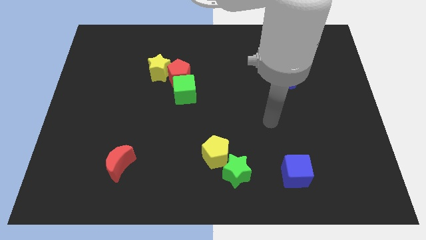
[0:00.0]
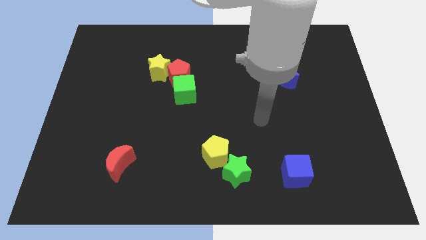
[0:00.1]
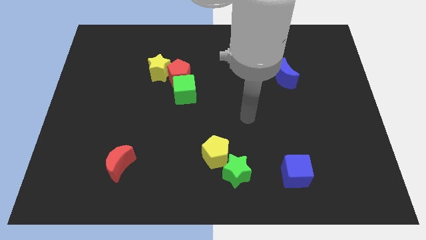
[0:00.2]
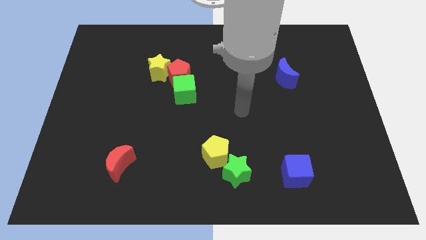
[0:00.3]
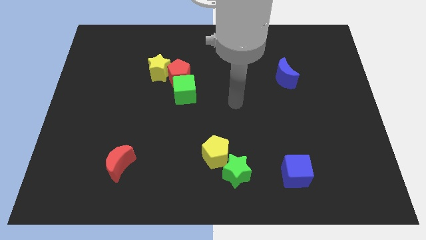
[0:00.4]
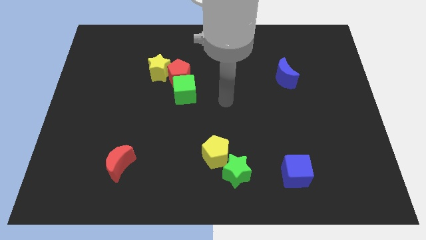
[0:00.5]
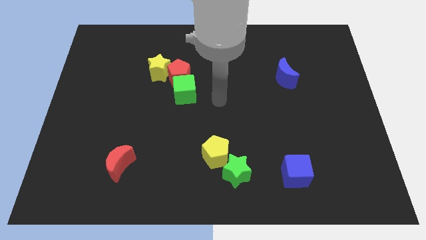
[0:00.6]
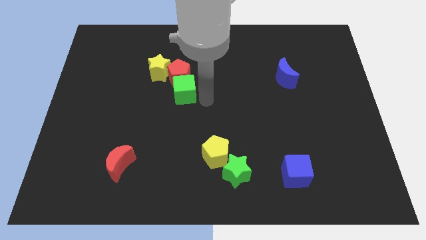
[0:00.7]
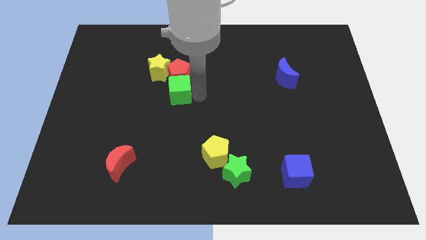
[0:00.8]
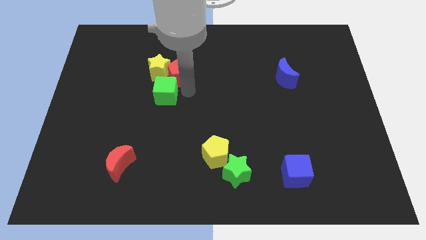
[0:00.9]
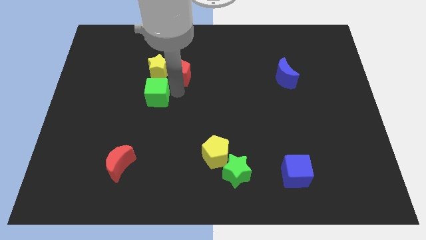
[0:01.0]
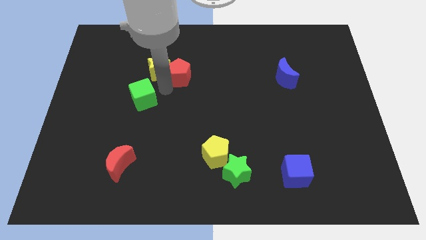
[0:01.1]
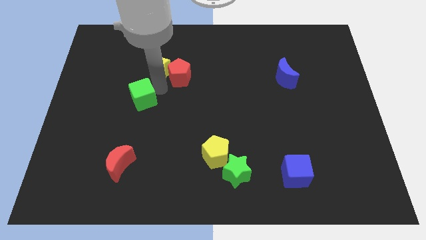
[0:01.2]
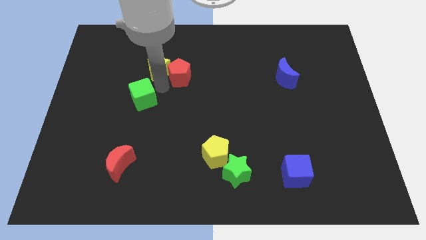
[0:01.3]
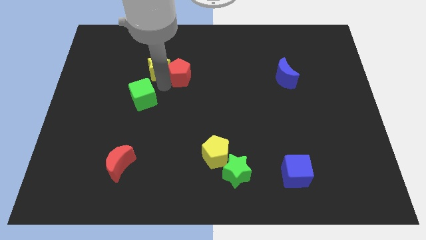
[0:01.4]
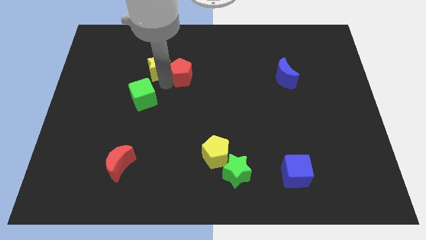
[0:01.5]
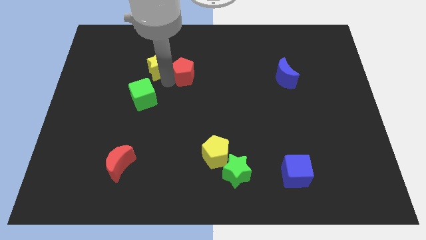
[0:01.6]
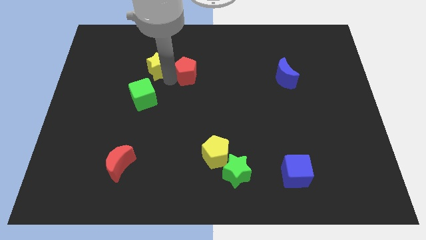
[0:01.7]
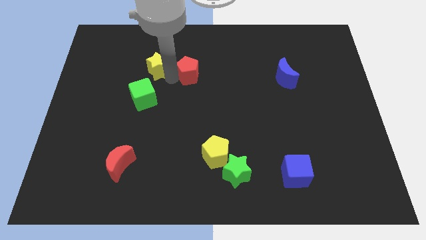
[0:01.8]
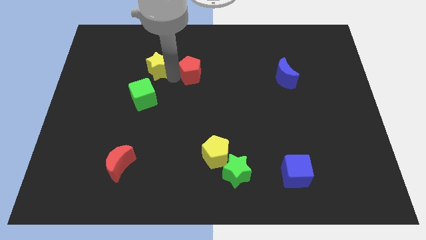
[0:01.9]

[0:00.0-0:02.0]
pull the red pentagon apart from the green cube and yellow star

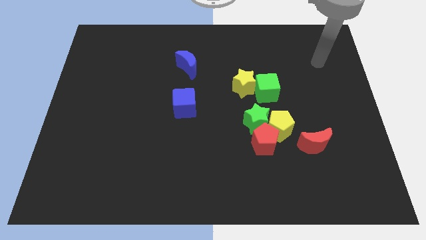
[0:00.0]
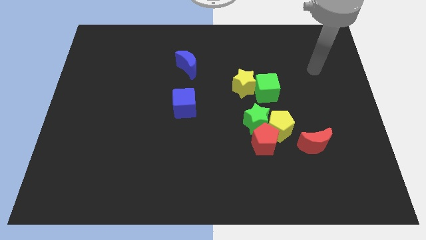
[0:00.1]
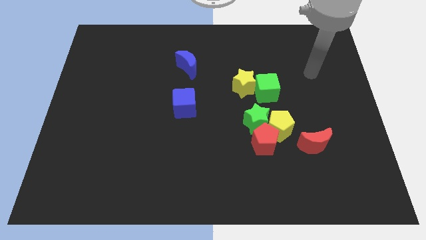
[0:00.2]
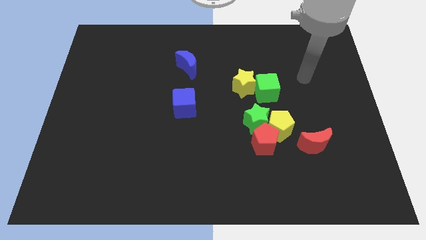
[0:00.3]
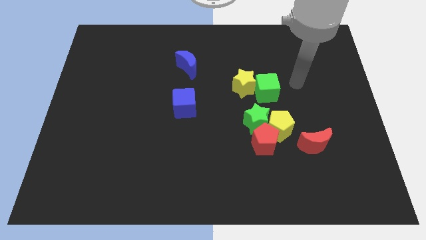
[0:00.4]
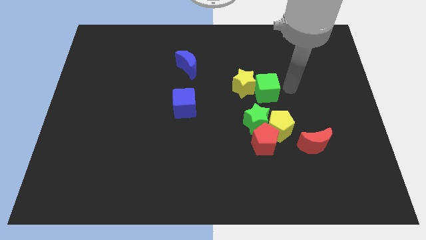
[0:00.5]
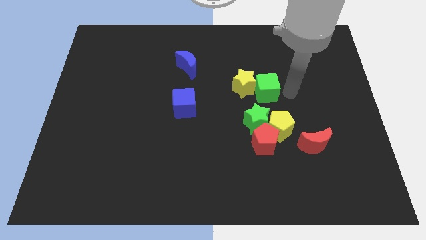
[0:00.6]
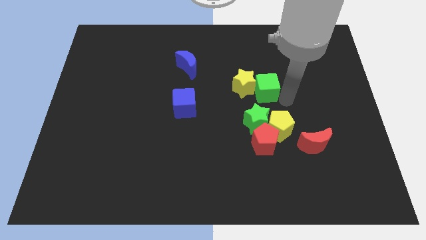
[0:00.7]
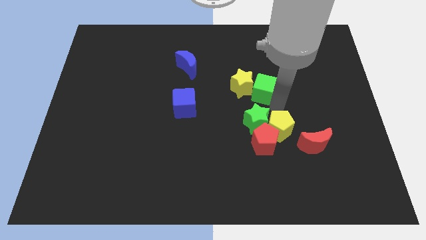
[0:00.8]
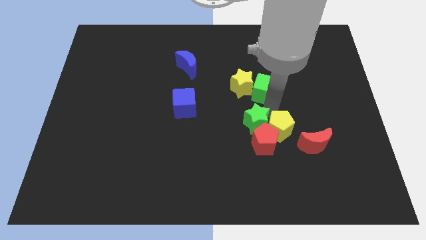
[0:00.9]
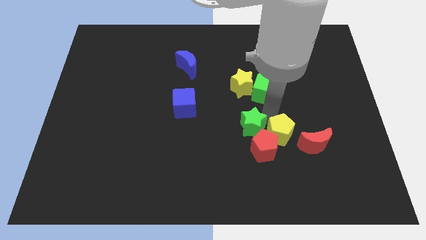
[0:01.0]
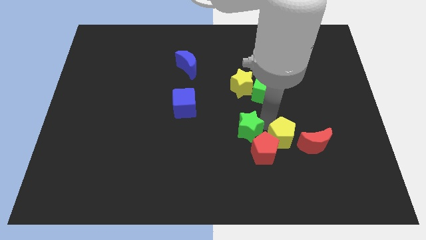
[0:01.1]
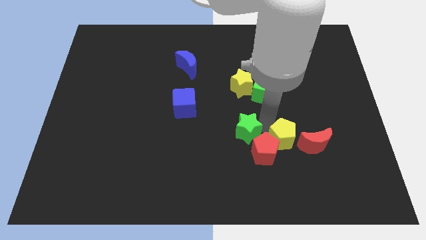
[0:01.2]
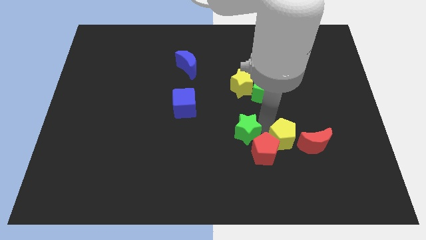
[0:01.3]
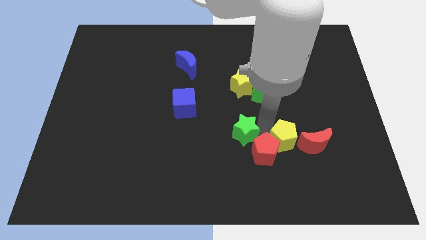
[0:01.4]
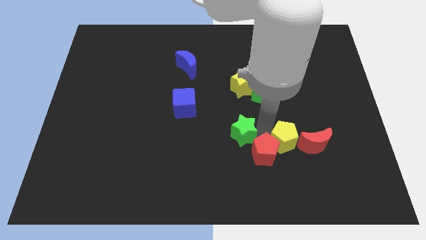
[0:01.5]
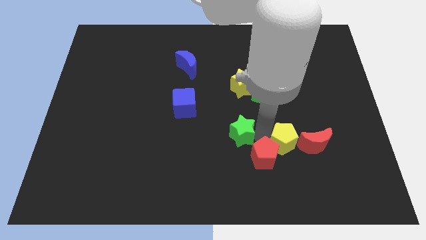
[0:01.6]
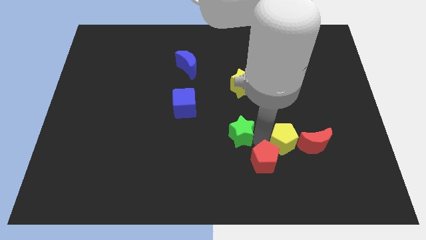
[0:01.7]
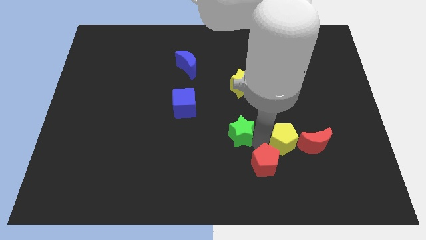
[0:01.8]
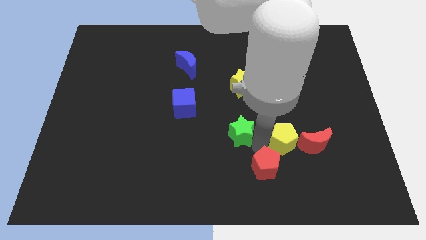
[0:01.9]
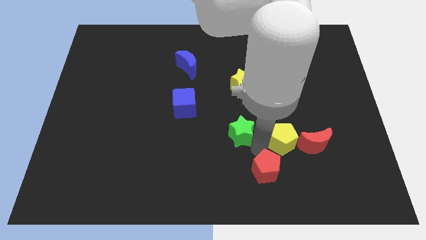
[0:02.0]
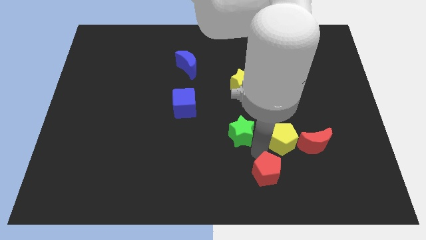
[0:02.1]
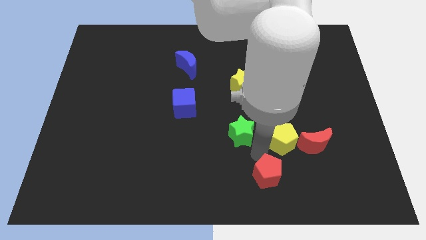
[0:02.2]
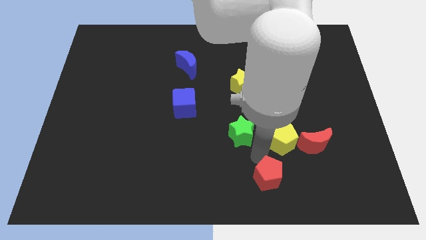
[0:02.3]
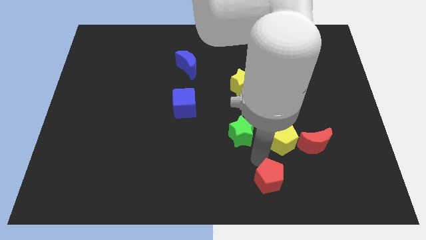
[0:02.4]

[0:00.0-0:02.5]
pull the red pentagon apart from the yellow pentagon and green star

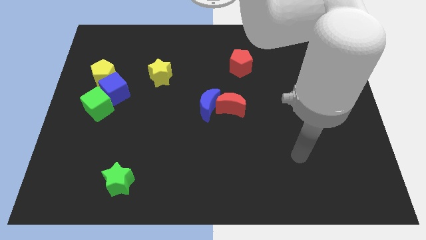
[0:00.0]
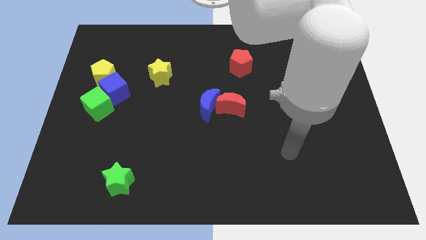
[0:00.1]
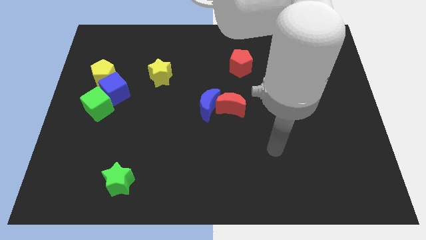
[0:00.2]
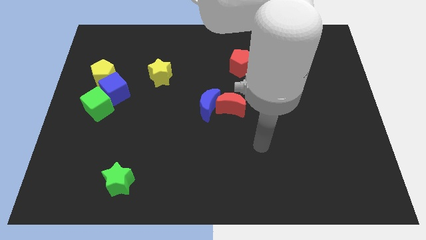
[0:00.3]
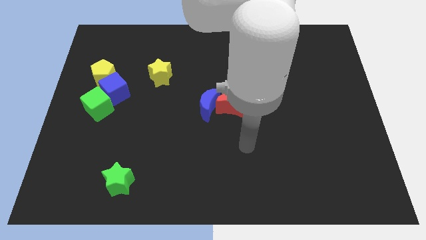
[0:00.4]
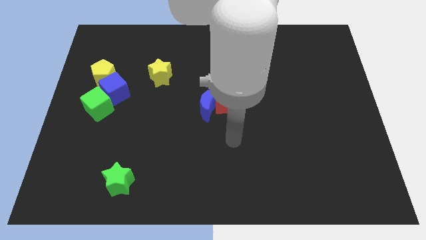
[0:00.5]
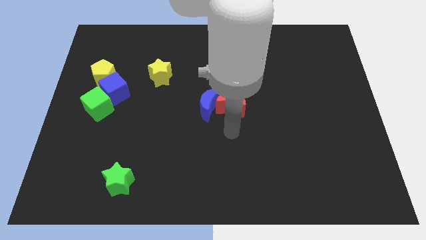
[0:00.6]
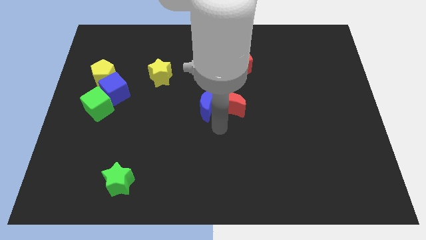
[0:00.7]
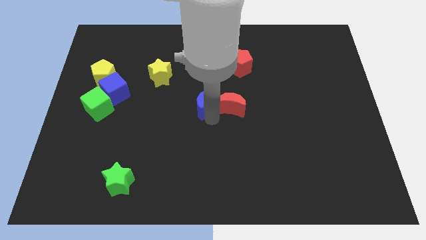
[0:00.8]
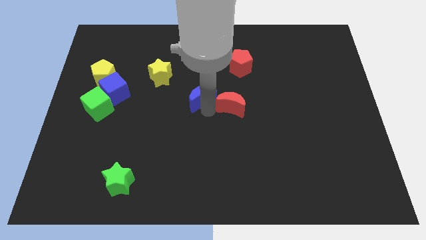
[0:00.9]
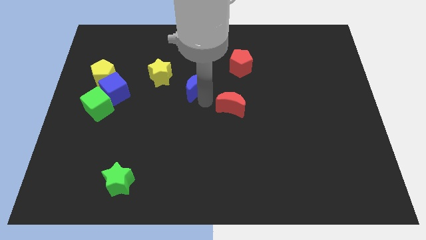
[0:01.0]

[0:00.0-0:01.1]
move the red moon away from the blue moon

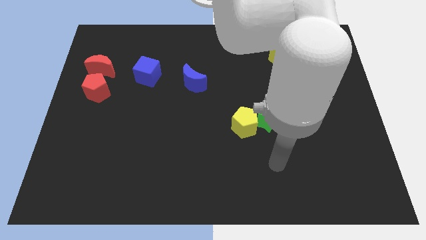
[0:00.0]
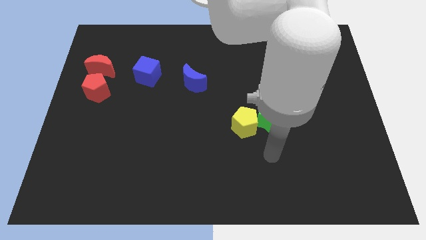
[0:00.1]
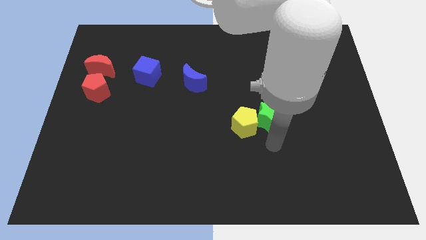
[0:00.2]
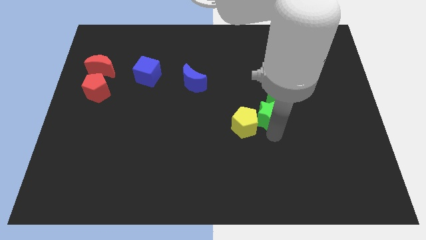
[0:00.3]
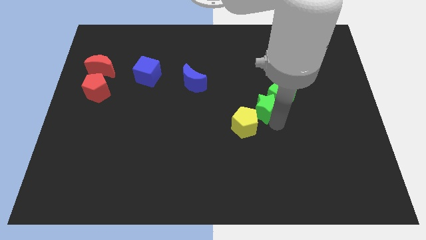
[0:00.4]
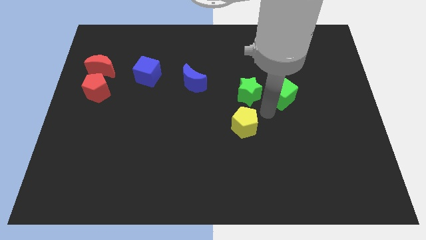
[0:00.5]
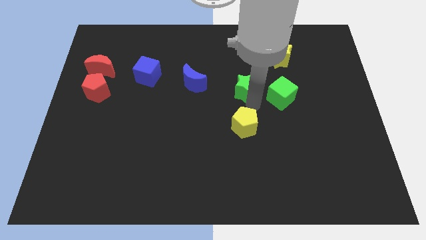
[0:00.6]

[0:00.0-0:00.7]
separate the yellow pentagon from the green star

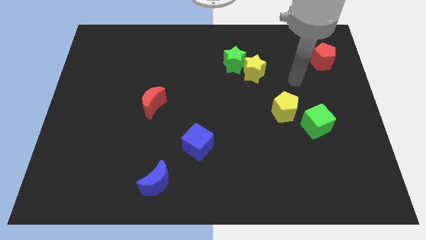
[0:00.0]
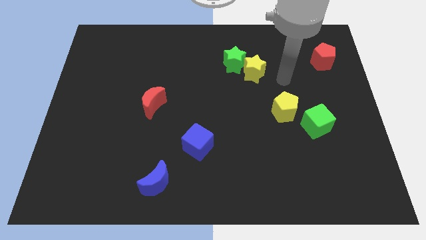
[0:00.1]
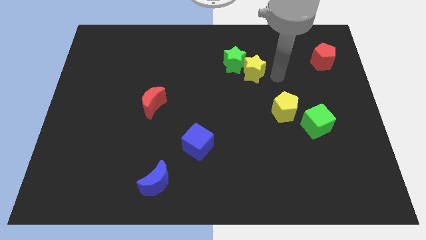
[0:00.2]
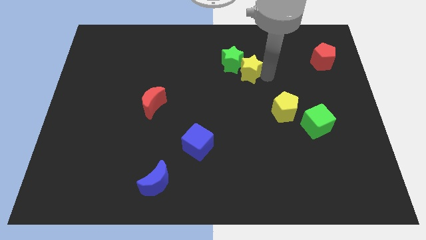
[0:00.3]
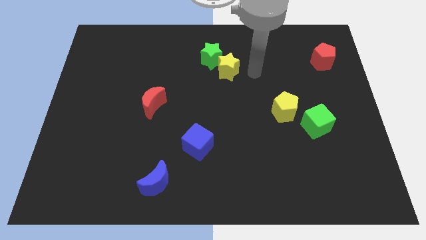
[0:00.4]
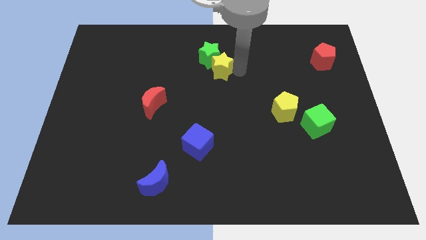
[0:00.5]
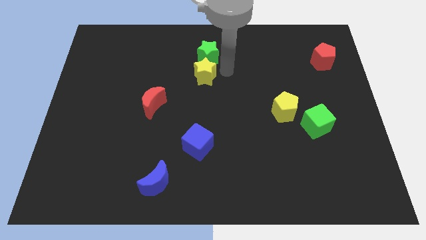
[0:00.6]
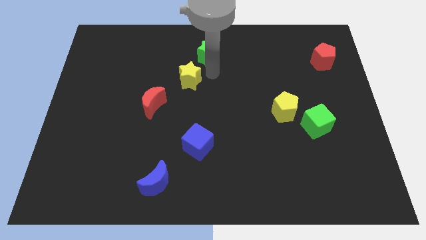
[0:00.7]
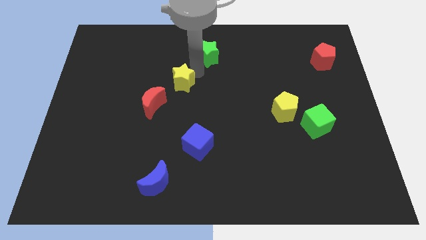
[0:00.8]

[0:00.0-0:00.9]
move the green star away from the yellow star

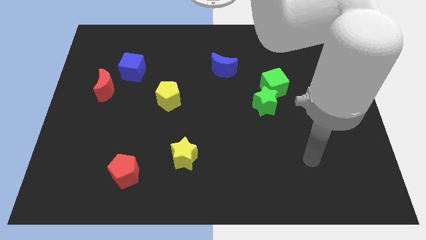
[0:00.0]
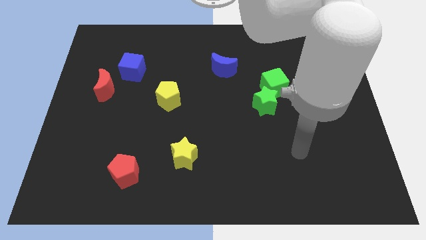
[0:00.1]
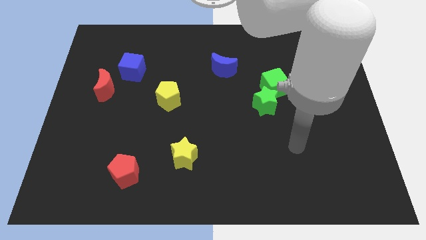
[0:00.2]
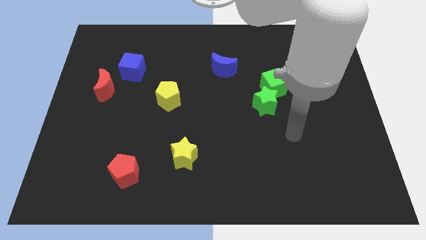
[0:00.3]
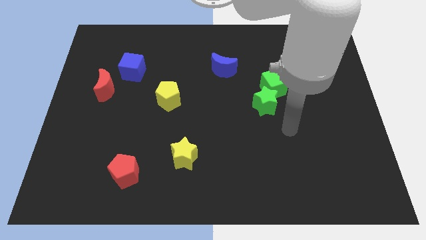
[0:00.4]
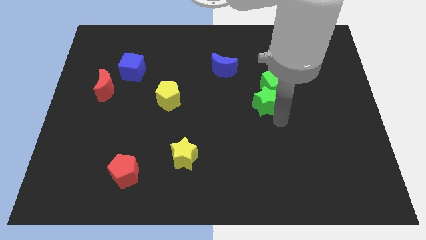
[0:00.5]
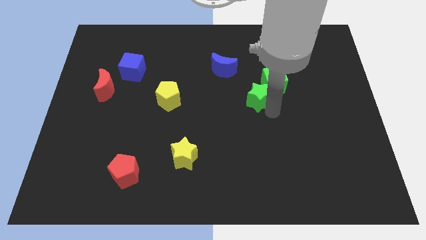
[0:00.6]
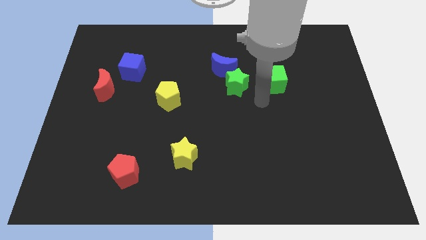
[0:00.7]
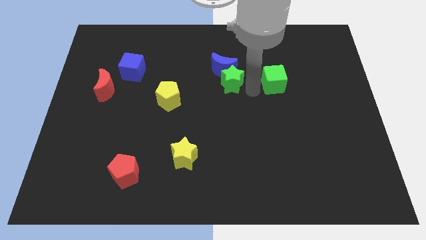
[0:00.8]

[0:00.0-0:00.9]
move the green cube away from the green star

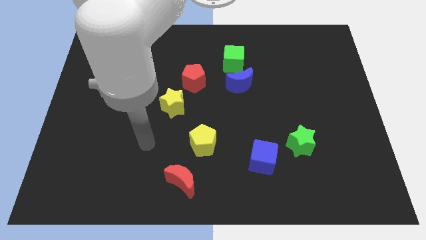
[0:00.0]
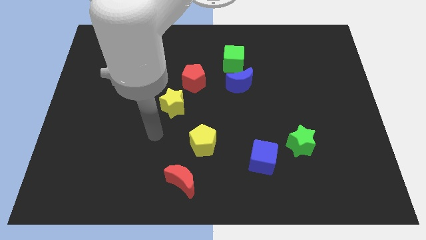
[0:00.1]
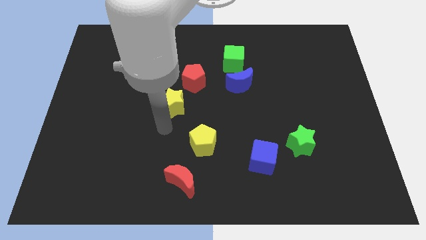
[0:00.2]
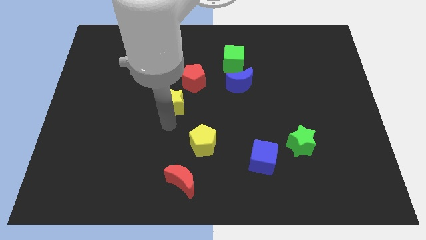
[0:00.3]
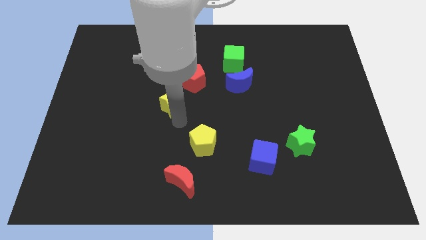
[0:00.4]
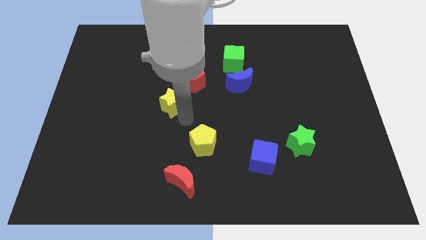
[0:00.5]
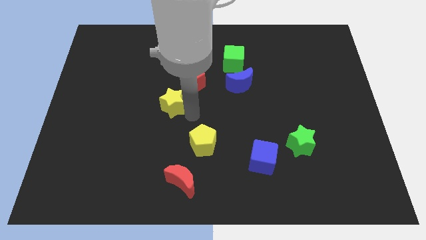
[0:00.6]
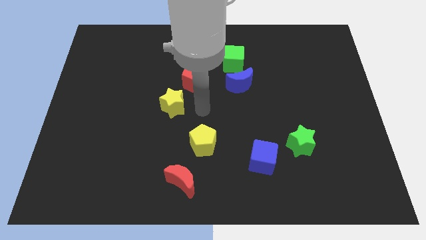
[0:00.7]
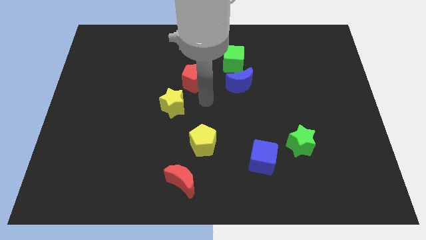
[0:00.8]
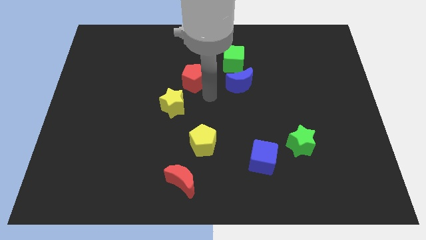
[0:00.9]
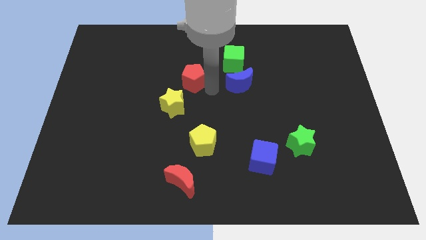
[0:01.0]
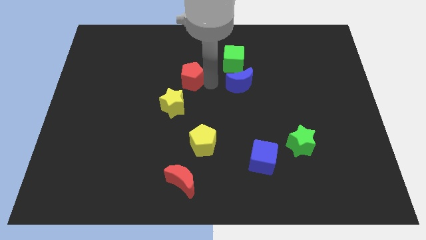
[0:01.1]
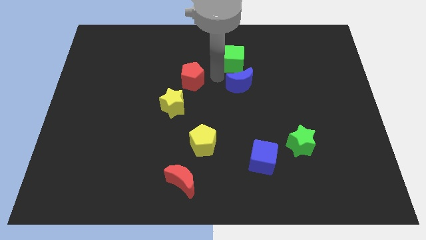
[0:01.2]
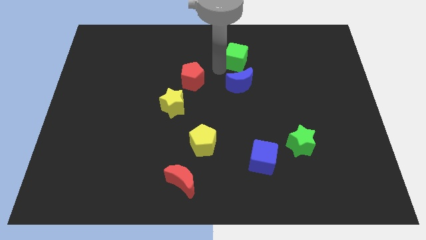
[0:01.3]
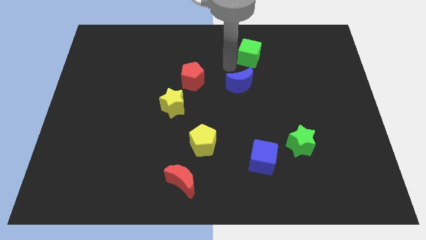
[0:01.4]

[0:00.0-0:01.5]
move the blue moon away from the green cube
